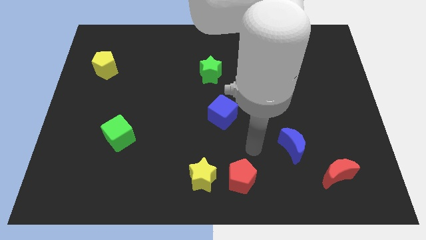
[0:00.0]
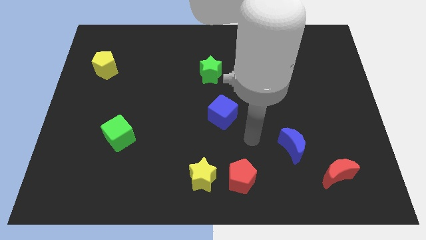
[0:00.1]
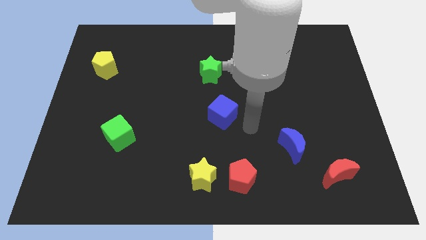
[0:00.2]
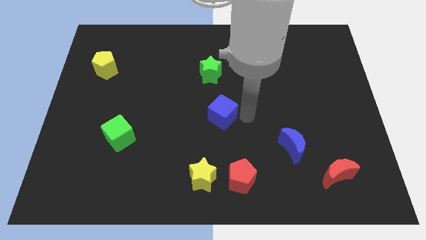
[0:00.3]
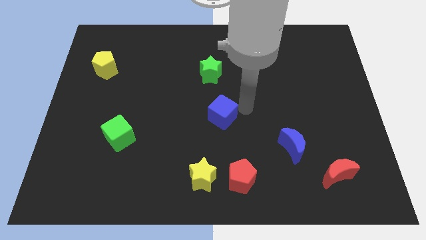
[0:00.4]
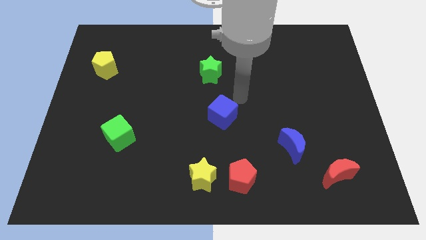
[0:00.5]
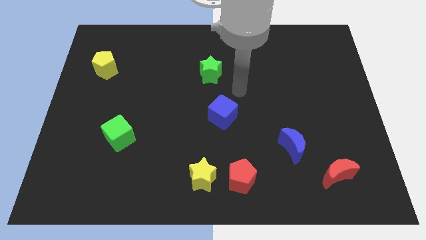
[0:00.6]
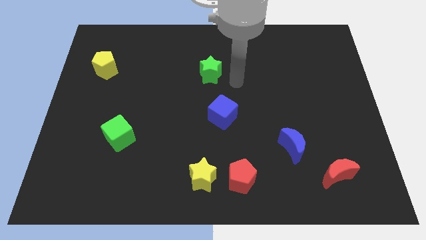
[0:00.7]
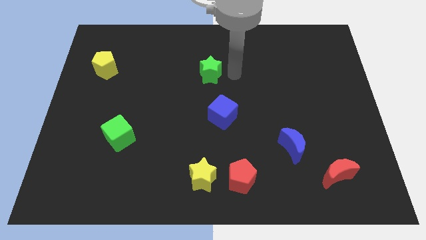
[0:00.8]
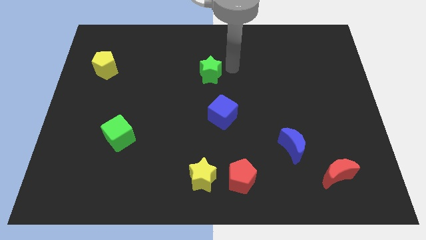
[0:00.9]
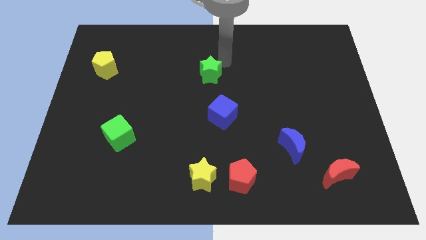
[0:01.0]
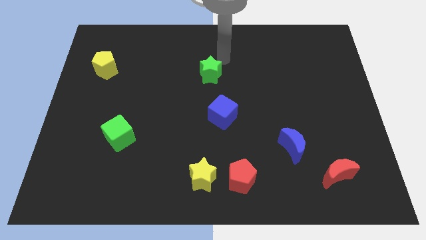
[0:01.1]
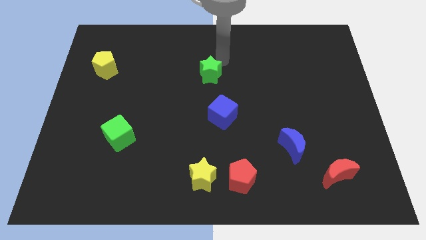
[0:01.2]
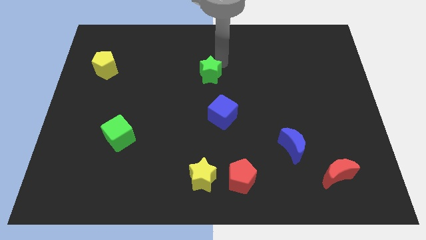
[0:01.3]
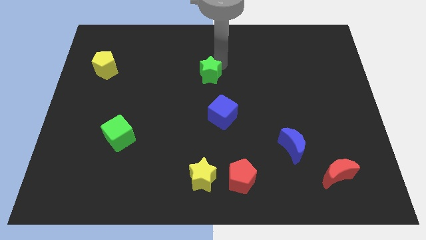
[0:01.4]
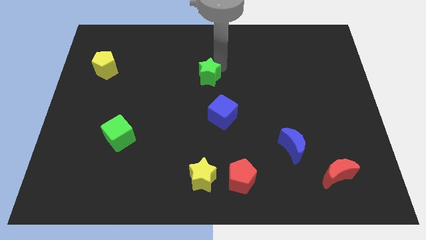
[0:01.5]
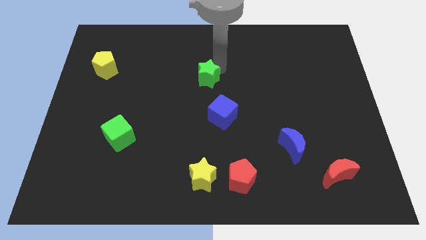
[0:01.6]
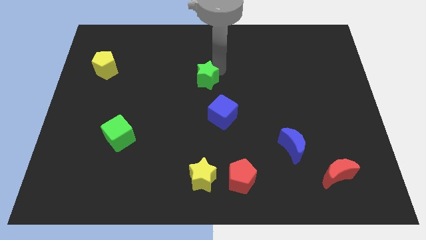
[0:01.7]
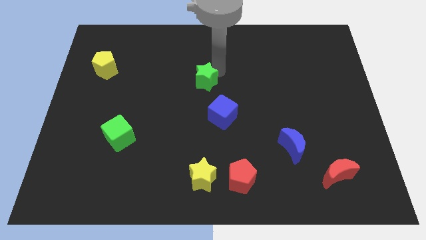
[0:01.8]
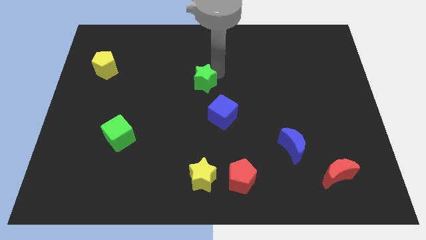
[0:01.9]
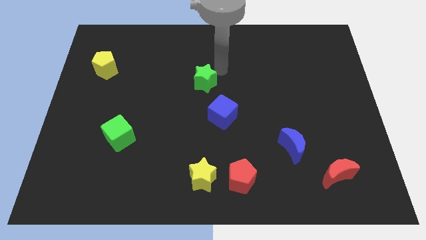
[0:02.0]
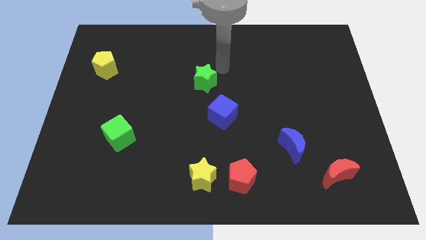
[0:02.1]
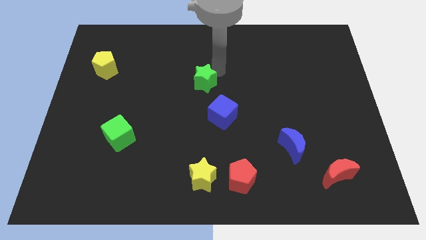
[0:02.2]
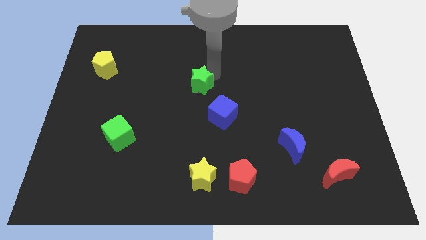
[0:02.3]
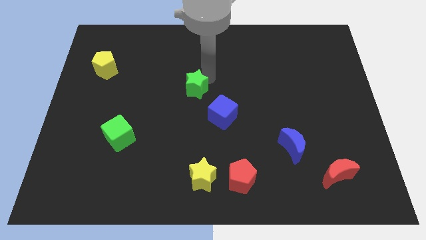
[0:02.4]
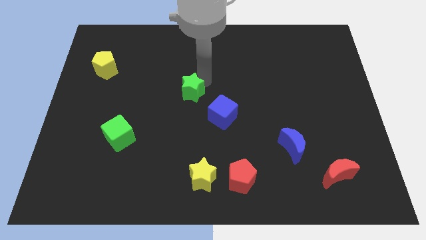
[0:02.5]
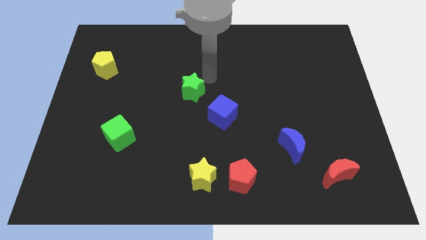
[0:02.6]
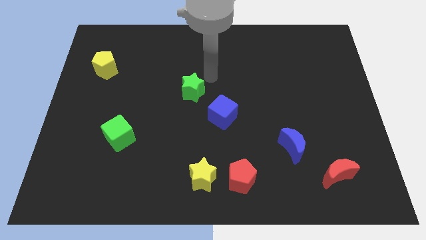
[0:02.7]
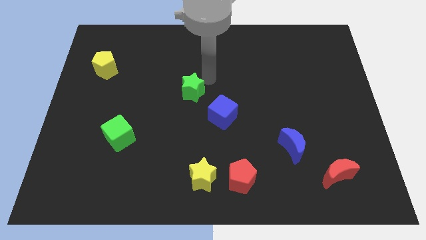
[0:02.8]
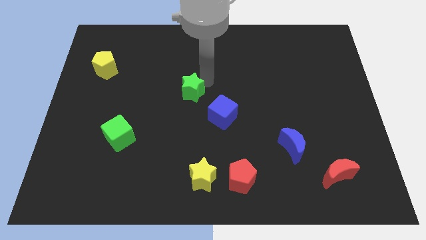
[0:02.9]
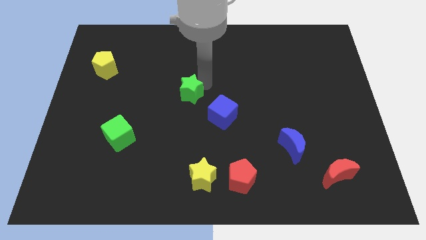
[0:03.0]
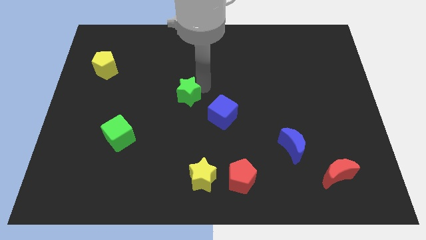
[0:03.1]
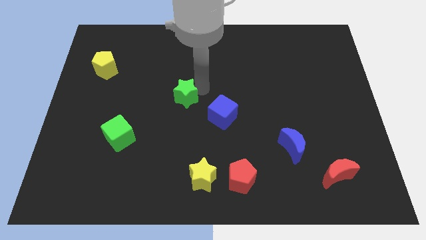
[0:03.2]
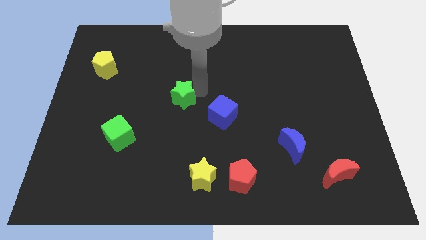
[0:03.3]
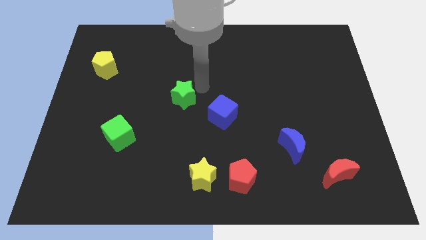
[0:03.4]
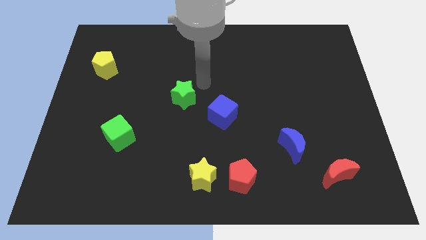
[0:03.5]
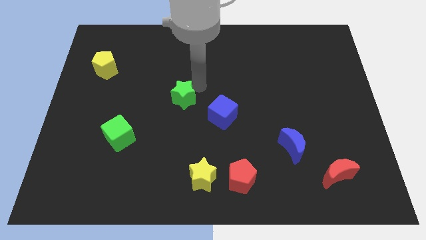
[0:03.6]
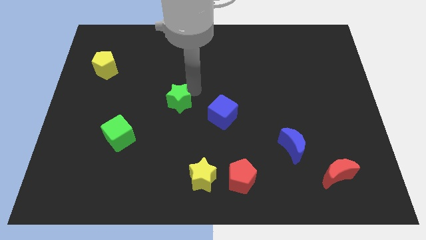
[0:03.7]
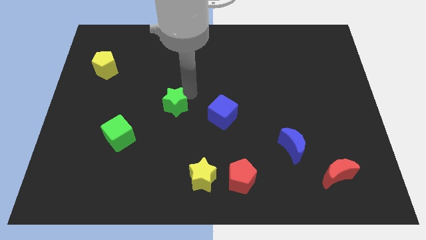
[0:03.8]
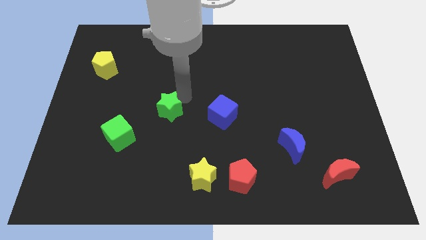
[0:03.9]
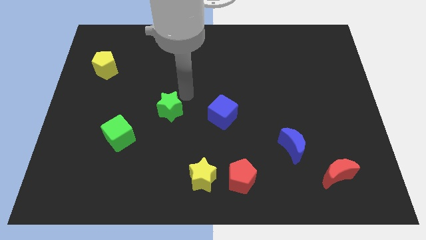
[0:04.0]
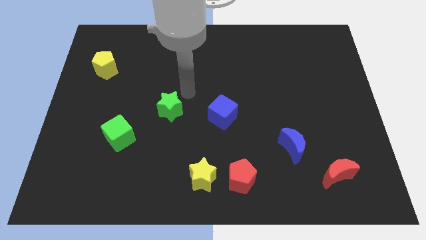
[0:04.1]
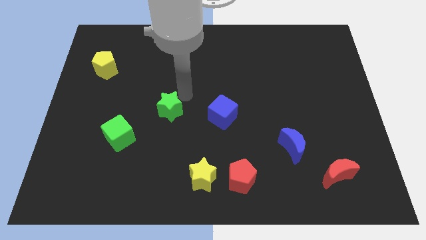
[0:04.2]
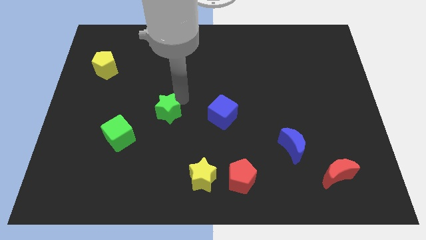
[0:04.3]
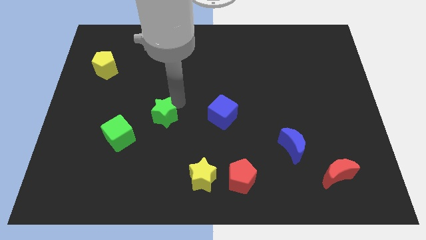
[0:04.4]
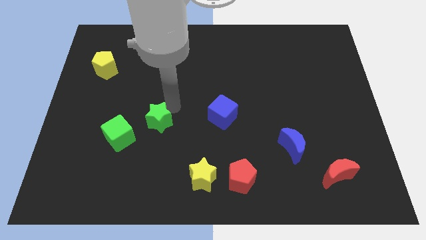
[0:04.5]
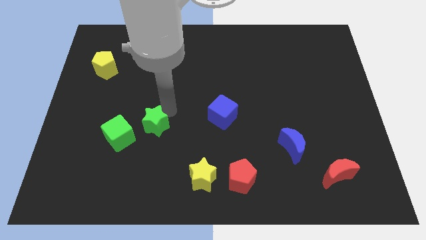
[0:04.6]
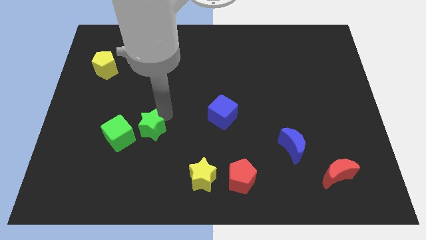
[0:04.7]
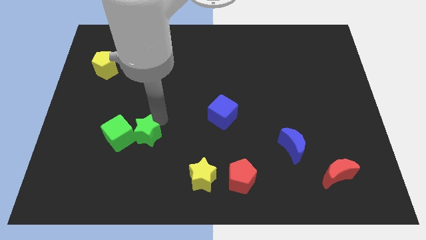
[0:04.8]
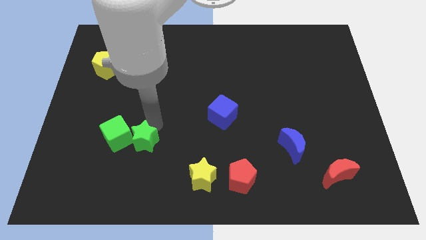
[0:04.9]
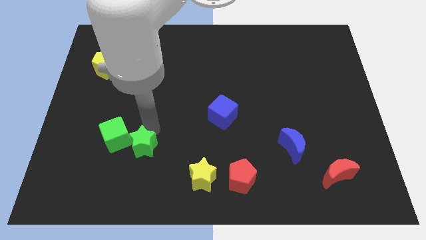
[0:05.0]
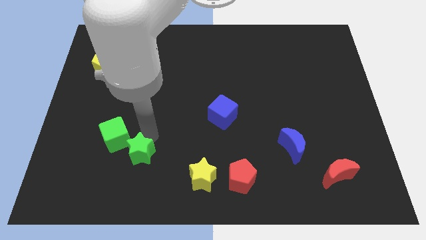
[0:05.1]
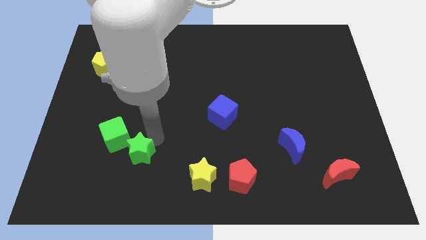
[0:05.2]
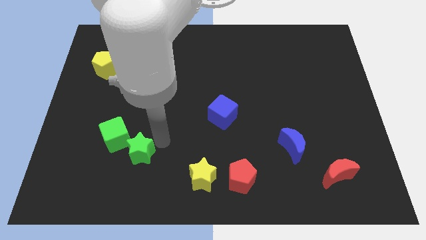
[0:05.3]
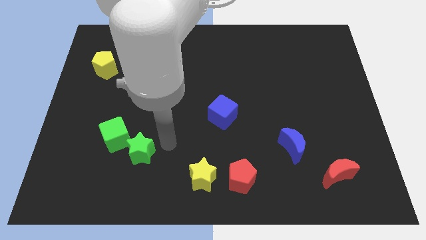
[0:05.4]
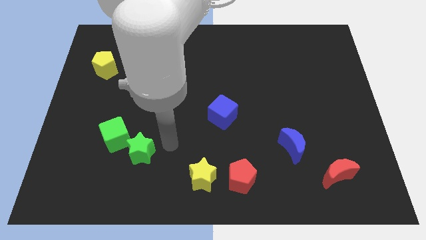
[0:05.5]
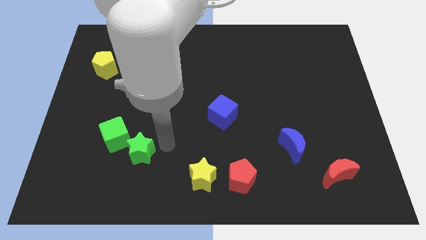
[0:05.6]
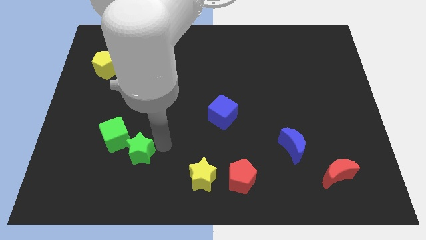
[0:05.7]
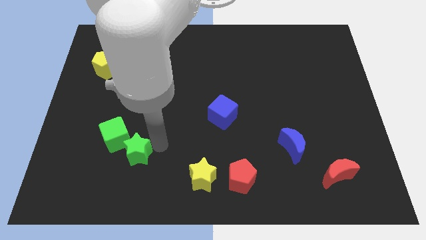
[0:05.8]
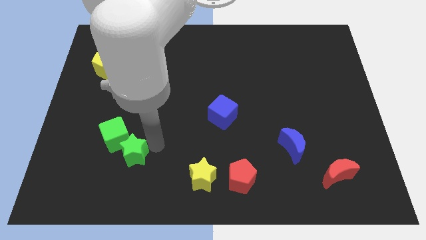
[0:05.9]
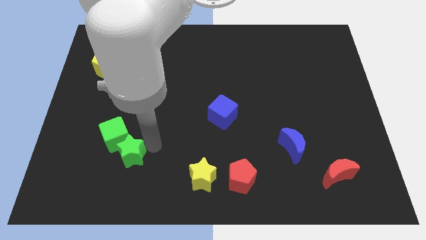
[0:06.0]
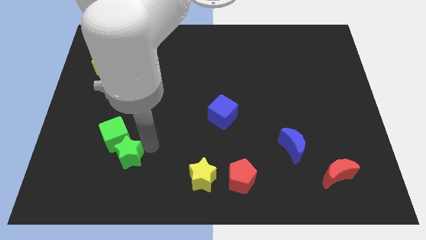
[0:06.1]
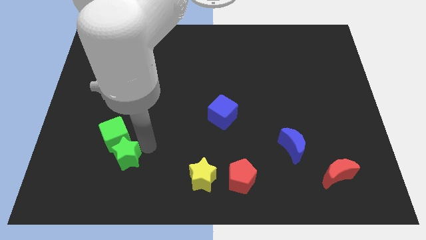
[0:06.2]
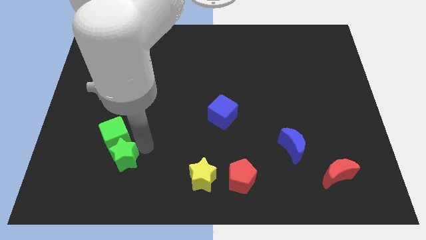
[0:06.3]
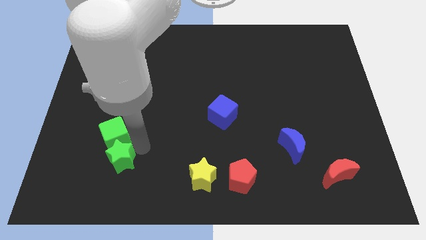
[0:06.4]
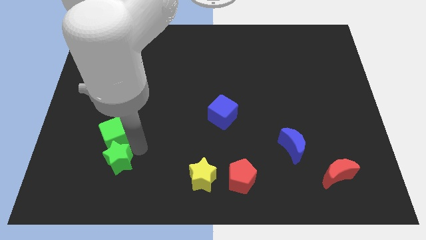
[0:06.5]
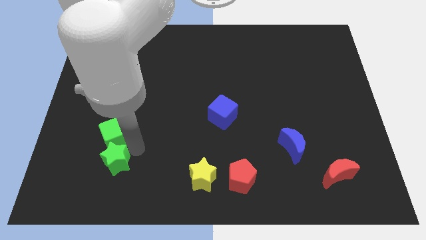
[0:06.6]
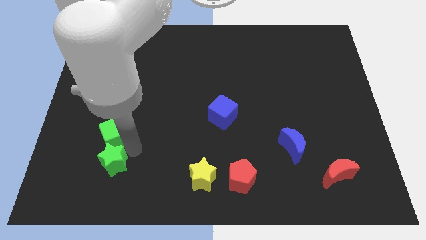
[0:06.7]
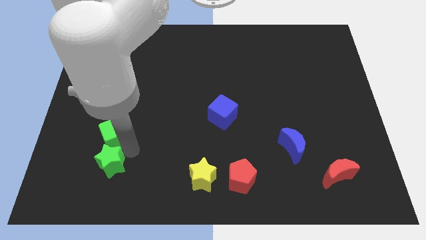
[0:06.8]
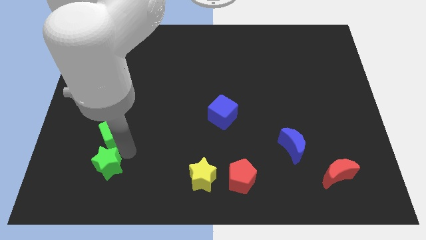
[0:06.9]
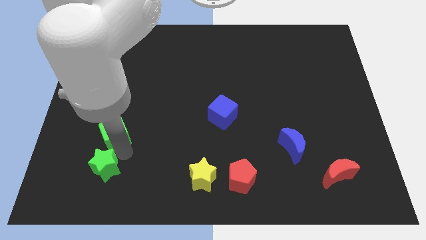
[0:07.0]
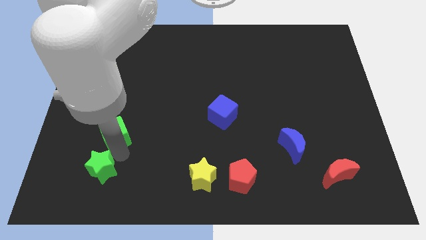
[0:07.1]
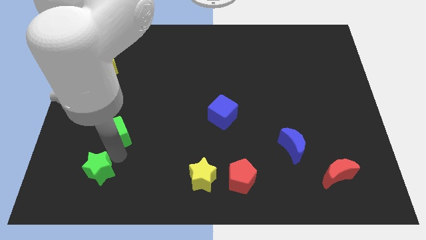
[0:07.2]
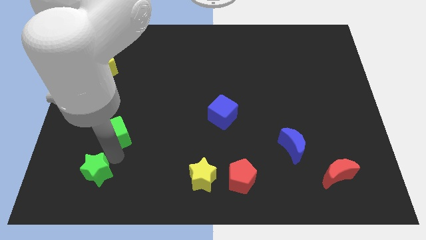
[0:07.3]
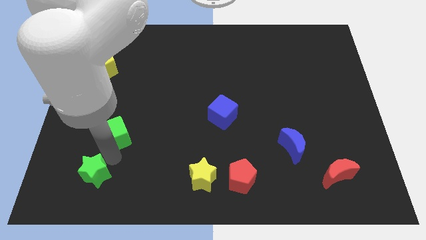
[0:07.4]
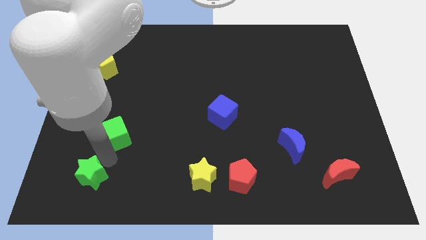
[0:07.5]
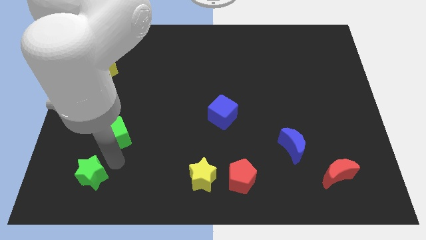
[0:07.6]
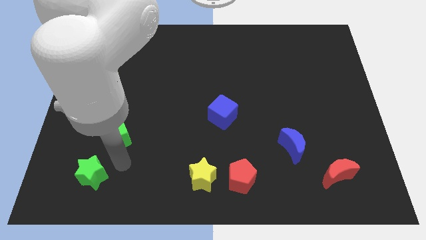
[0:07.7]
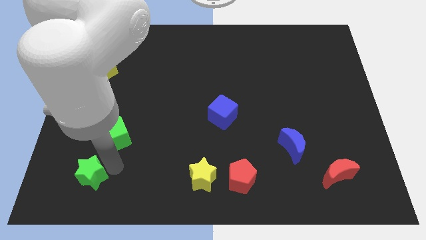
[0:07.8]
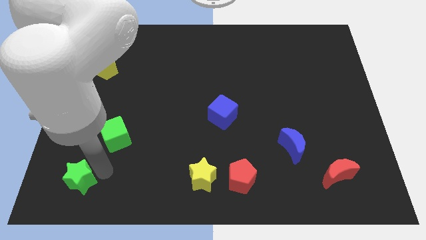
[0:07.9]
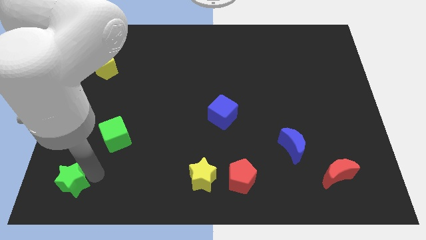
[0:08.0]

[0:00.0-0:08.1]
push the green star to the bottom left
